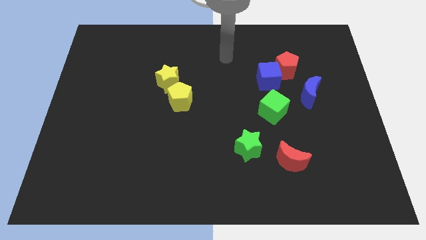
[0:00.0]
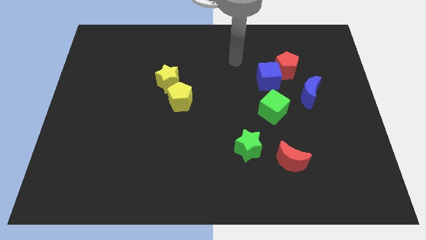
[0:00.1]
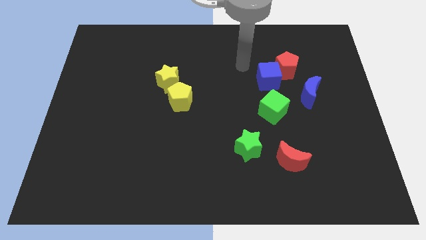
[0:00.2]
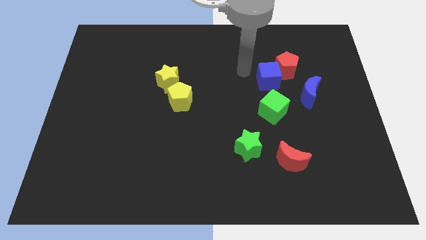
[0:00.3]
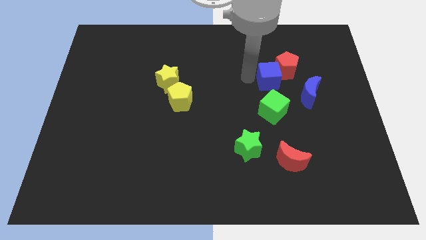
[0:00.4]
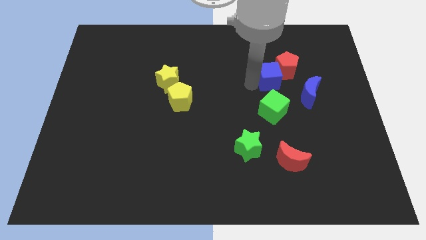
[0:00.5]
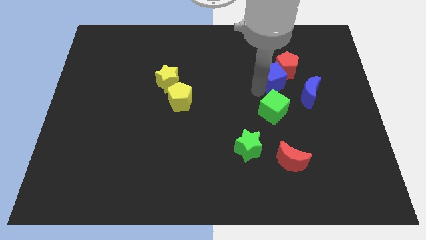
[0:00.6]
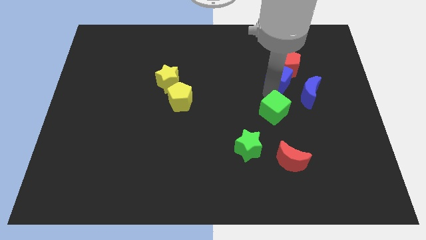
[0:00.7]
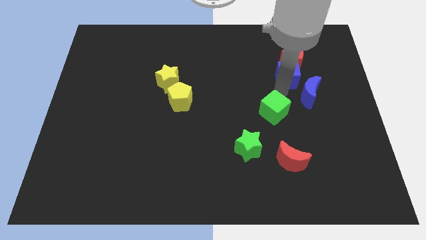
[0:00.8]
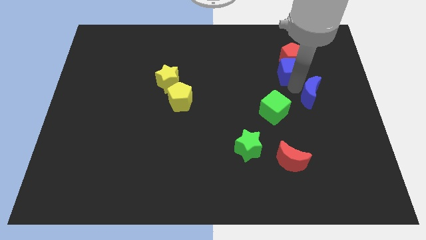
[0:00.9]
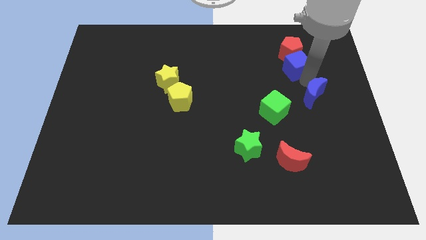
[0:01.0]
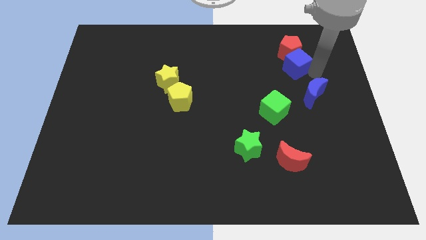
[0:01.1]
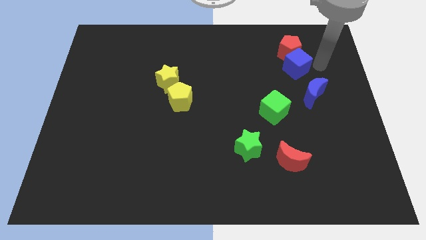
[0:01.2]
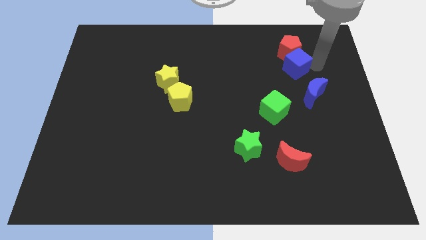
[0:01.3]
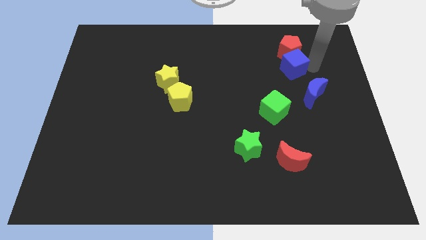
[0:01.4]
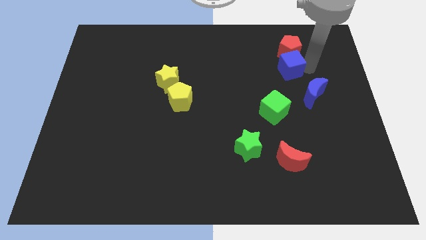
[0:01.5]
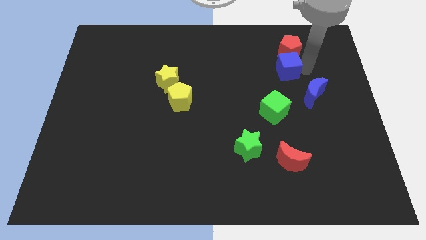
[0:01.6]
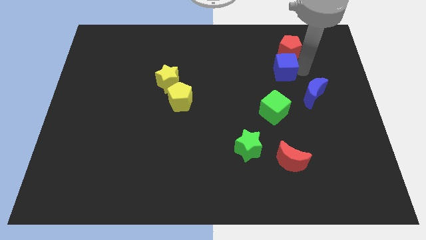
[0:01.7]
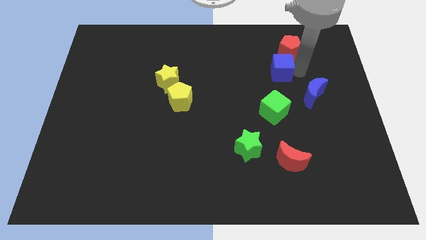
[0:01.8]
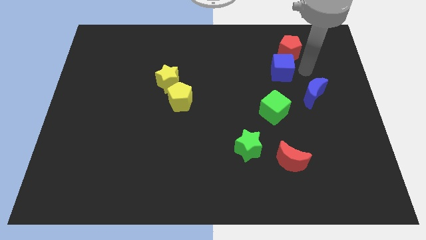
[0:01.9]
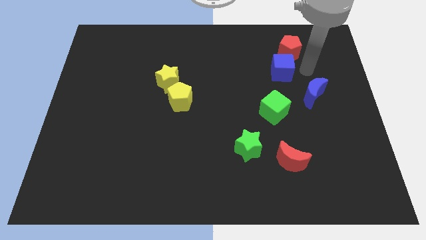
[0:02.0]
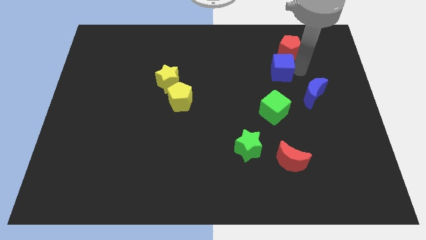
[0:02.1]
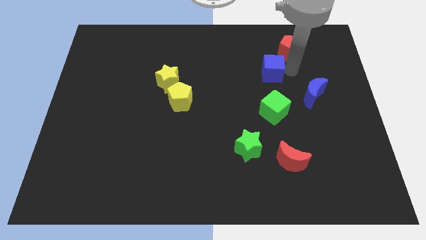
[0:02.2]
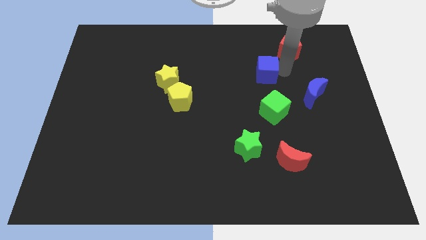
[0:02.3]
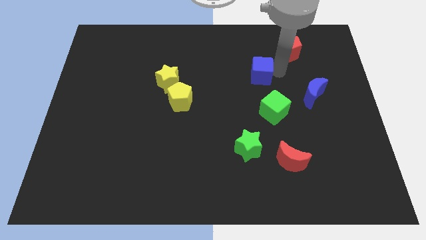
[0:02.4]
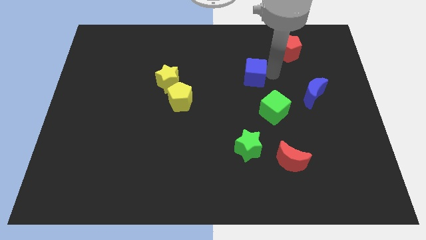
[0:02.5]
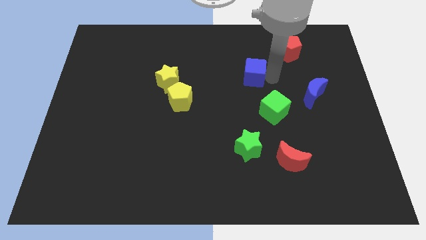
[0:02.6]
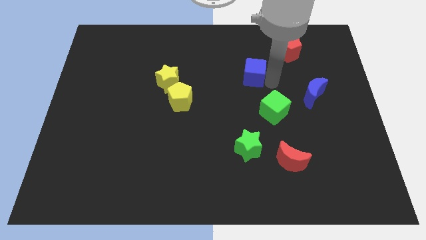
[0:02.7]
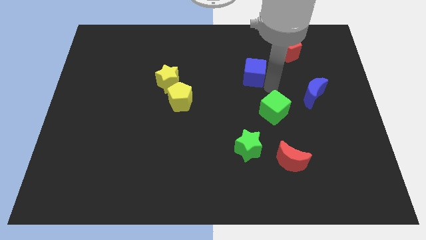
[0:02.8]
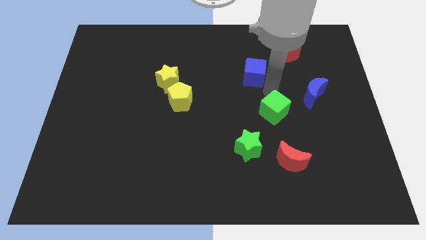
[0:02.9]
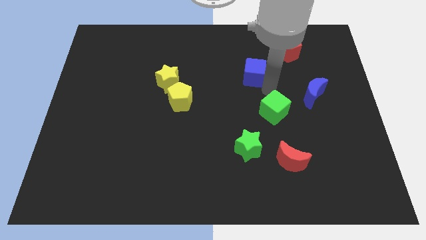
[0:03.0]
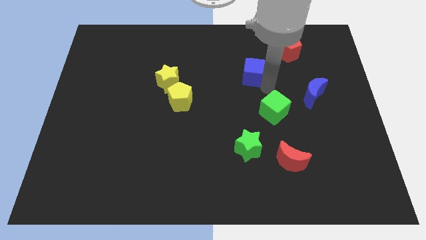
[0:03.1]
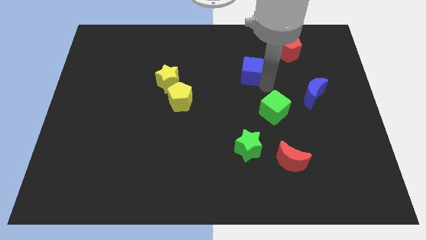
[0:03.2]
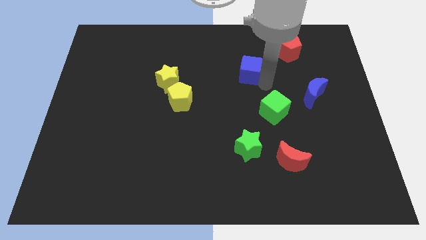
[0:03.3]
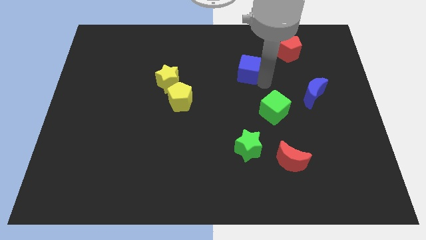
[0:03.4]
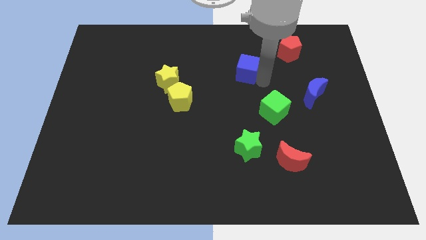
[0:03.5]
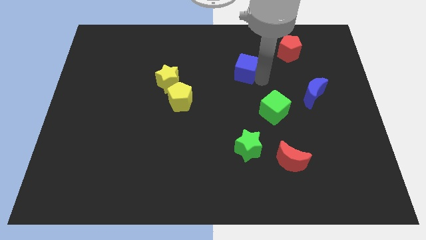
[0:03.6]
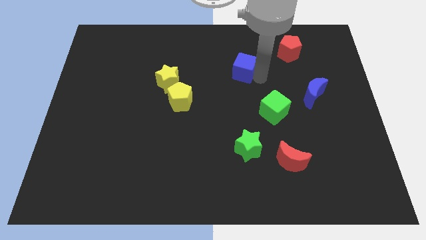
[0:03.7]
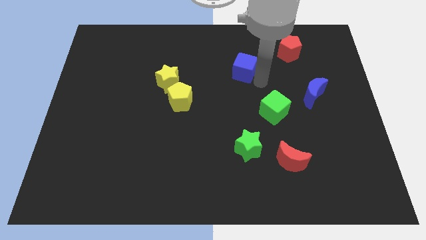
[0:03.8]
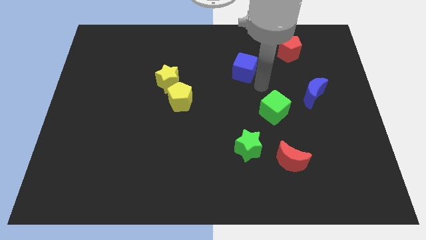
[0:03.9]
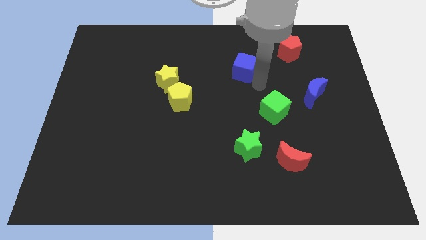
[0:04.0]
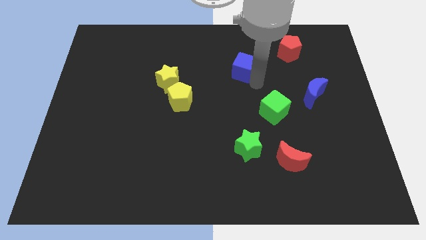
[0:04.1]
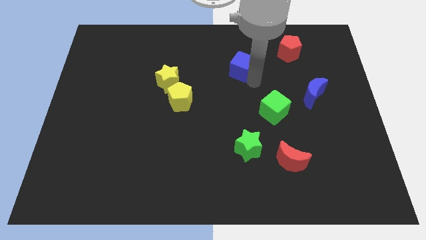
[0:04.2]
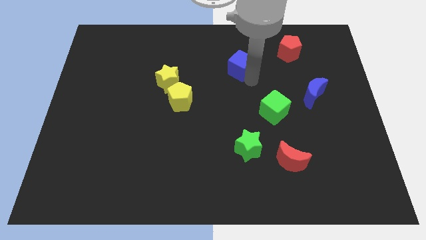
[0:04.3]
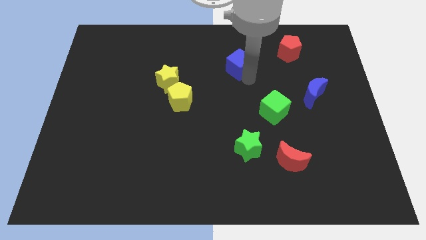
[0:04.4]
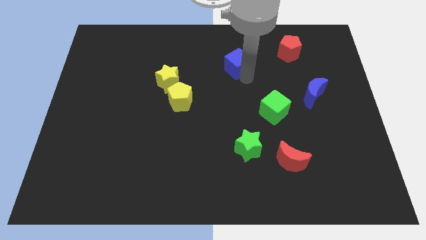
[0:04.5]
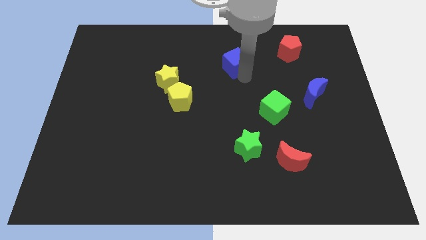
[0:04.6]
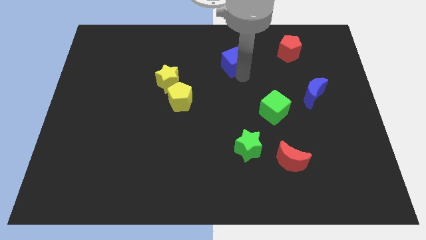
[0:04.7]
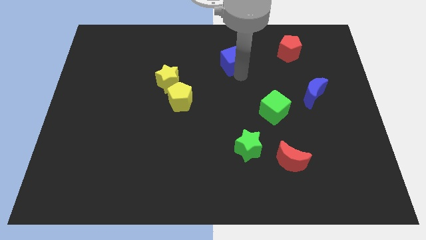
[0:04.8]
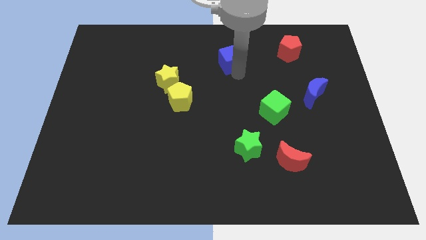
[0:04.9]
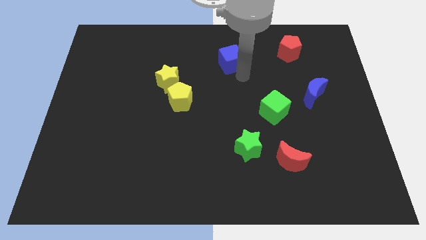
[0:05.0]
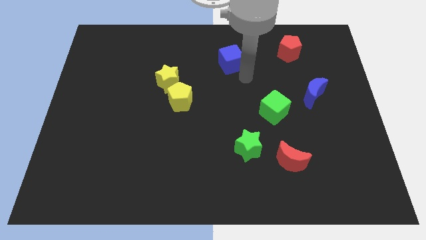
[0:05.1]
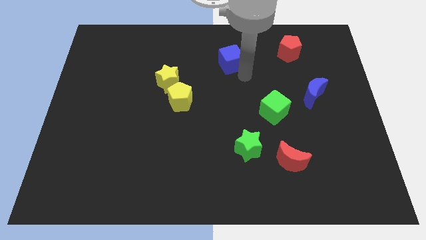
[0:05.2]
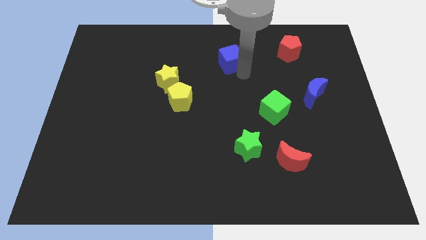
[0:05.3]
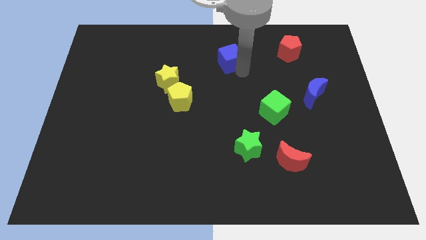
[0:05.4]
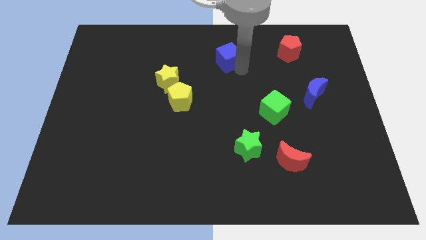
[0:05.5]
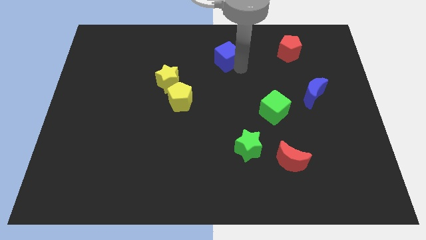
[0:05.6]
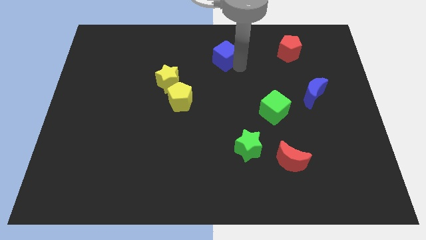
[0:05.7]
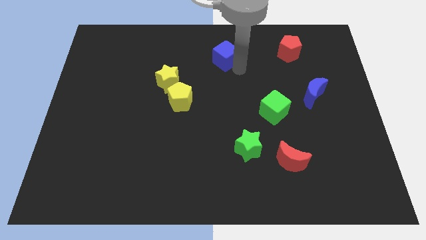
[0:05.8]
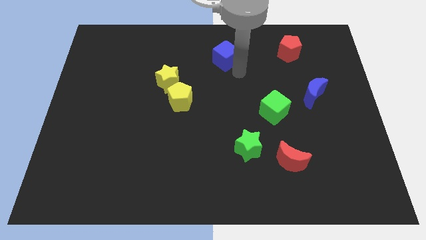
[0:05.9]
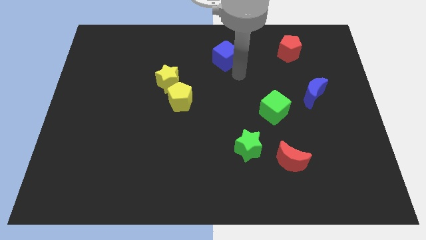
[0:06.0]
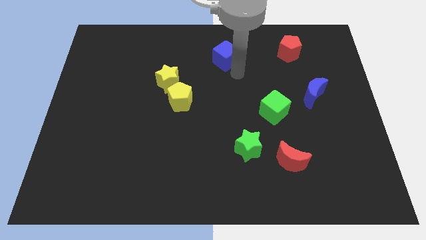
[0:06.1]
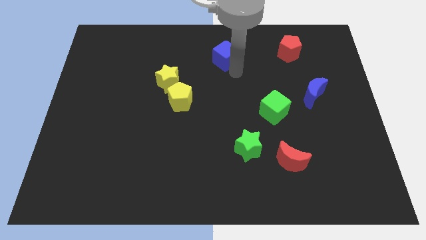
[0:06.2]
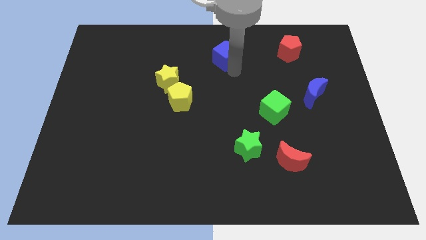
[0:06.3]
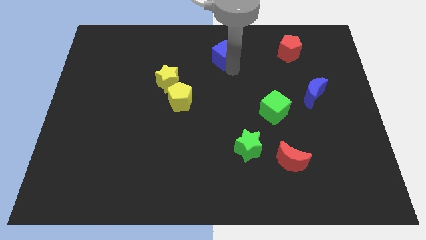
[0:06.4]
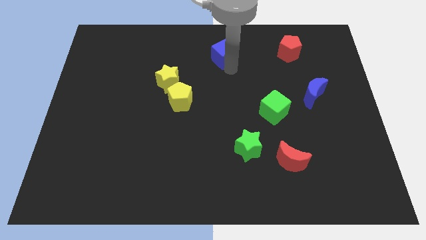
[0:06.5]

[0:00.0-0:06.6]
put the blue cube to the top
